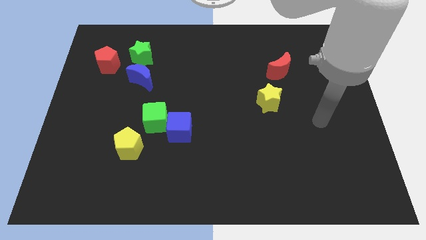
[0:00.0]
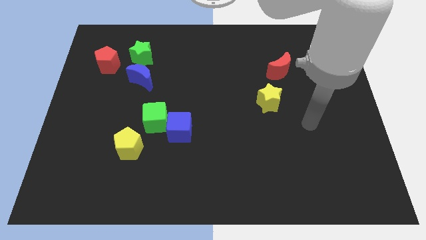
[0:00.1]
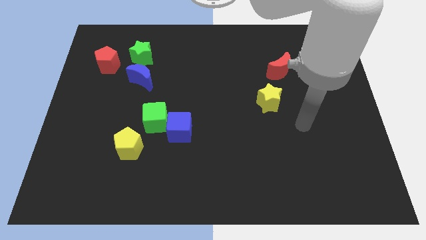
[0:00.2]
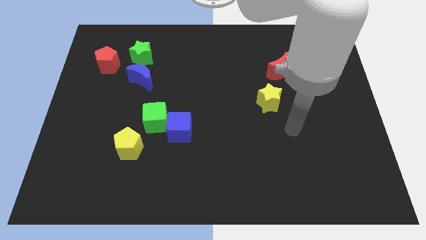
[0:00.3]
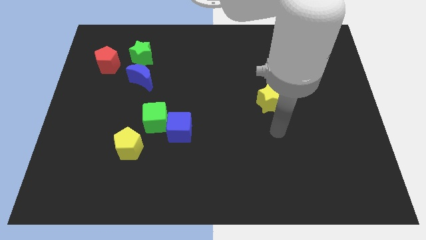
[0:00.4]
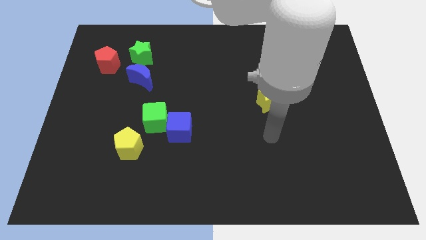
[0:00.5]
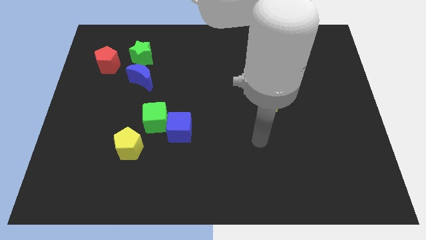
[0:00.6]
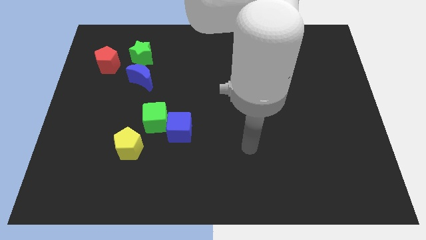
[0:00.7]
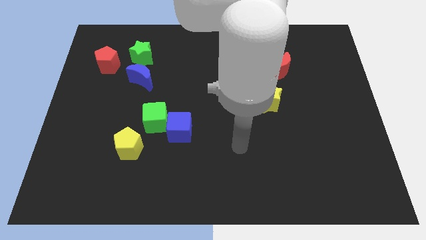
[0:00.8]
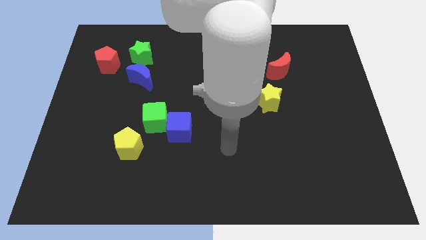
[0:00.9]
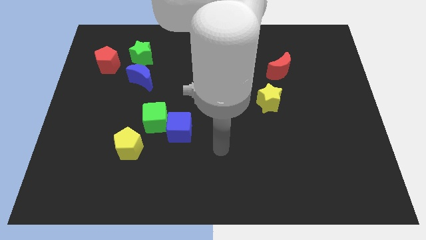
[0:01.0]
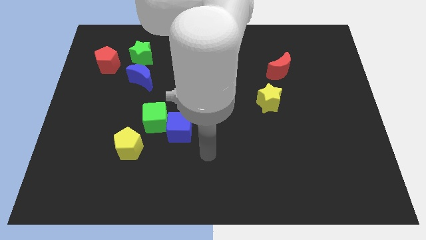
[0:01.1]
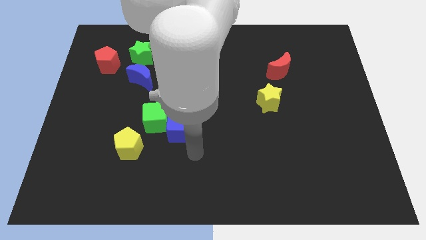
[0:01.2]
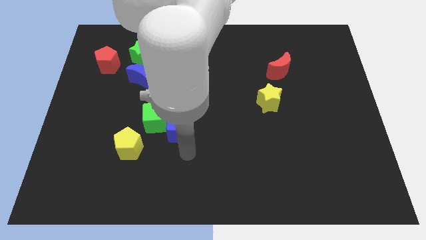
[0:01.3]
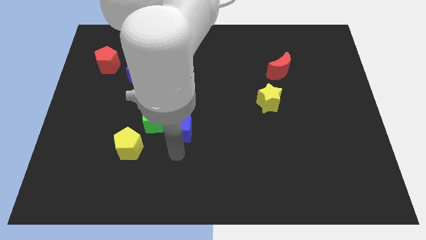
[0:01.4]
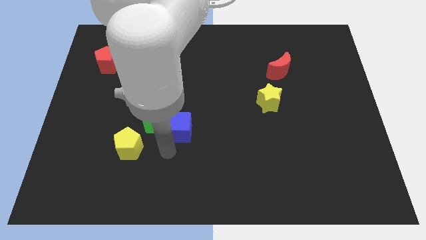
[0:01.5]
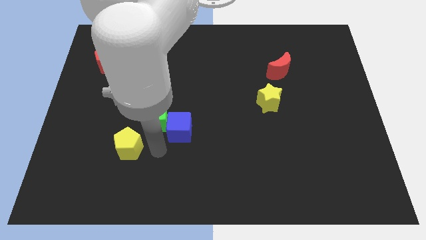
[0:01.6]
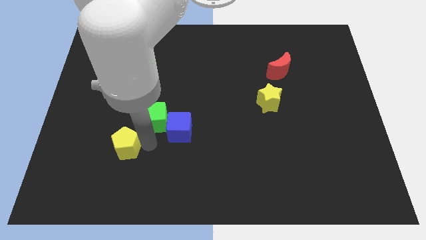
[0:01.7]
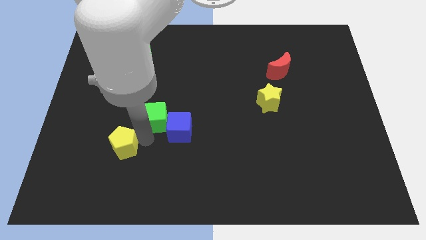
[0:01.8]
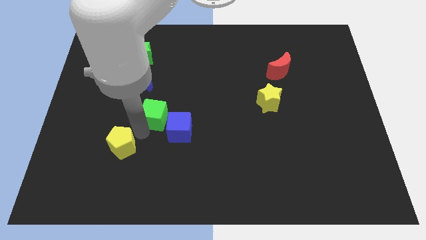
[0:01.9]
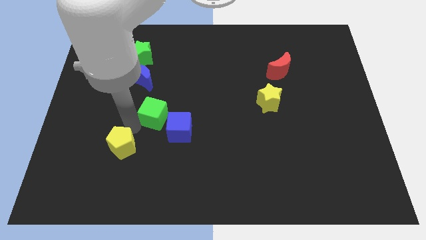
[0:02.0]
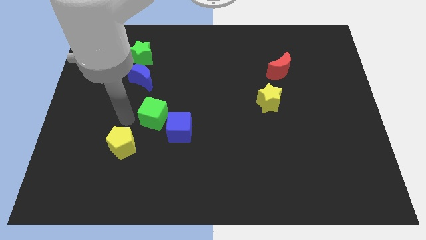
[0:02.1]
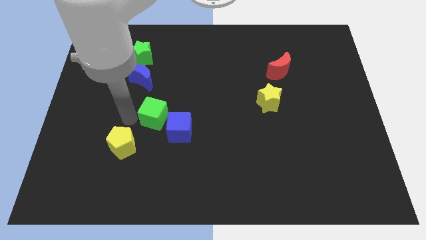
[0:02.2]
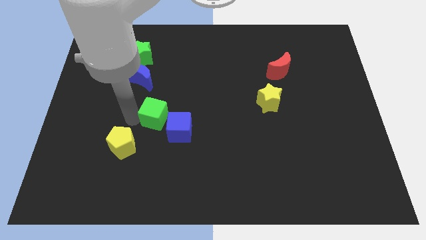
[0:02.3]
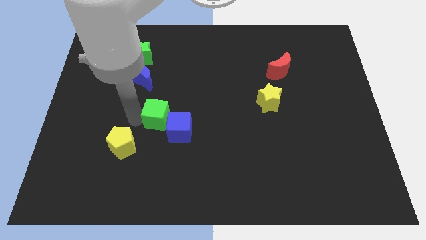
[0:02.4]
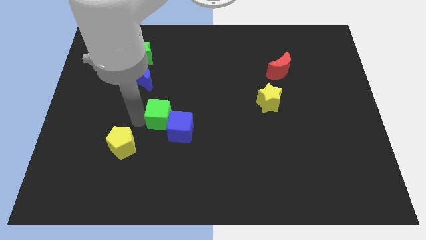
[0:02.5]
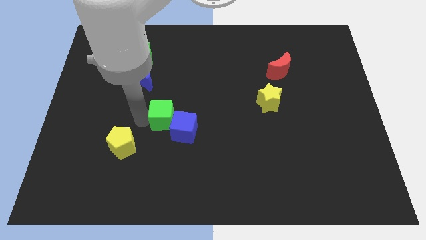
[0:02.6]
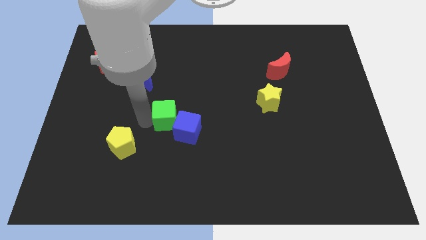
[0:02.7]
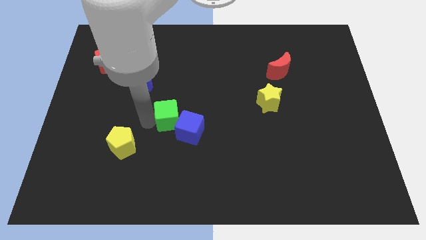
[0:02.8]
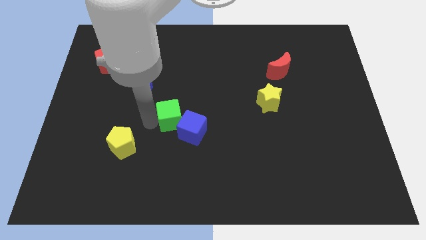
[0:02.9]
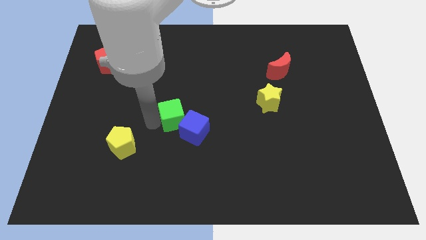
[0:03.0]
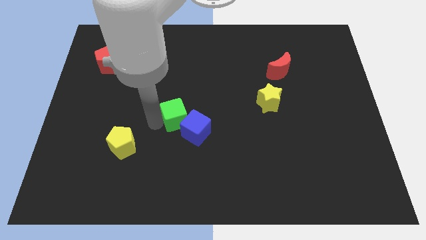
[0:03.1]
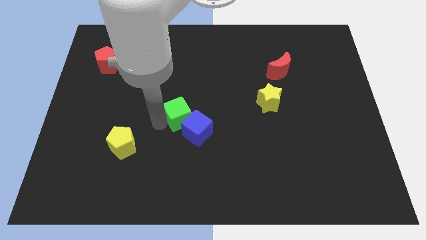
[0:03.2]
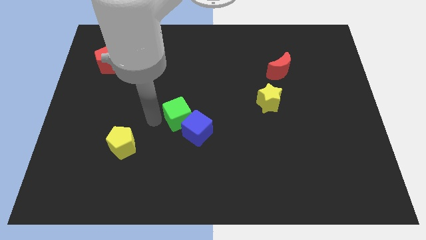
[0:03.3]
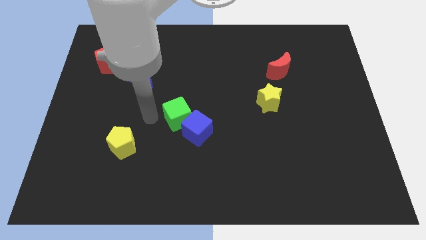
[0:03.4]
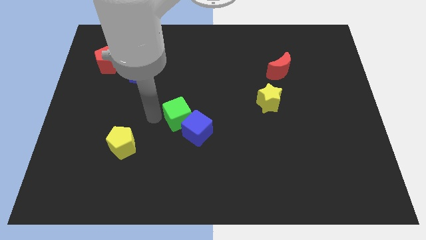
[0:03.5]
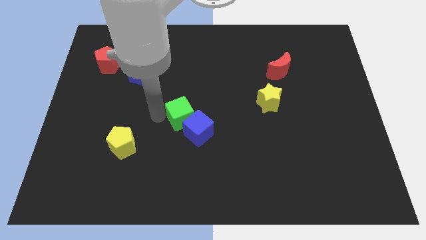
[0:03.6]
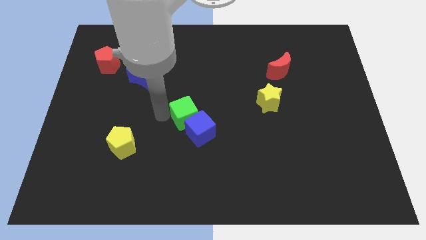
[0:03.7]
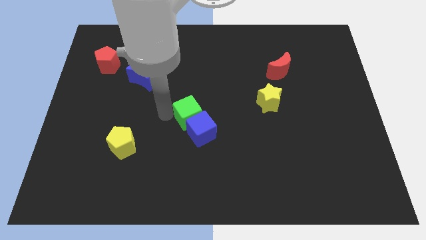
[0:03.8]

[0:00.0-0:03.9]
move the green cube to the right slightly

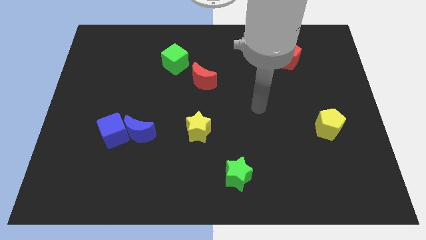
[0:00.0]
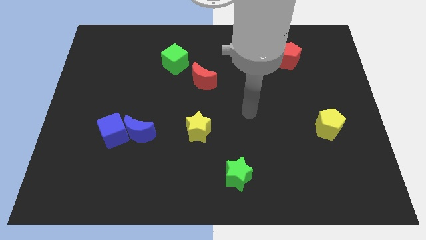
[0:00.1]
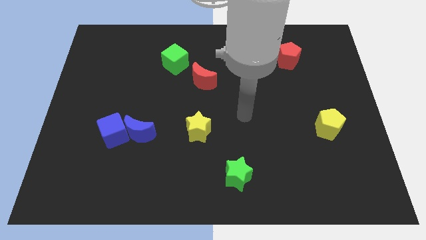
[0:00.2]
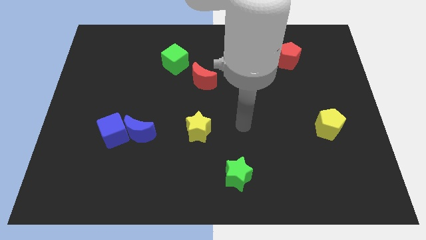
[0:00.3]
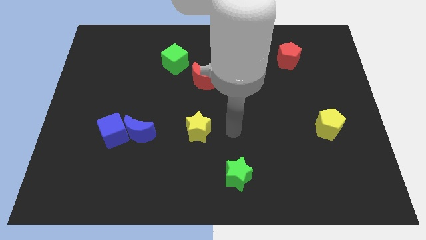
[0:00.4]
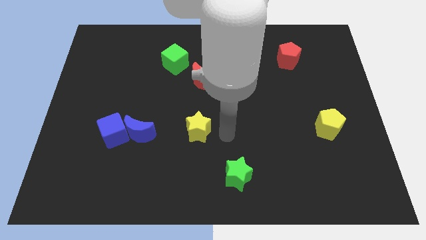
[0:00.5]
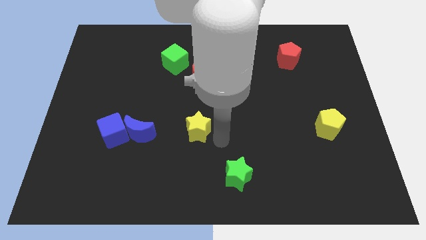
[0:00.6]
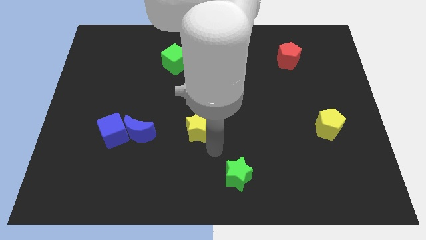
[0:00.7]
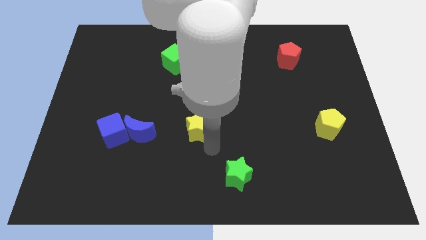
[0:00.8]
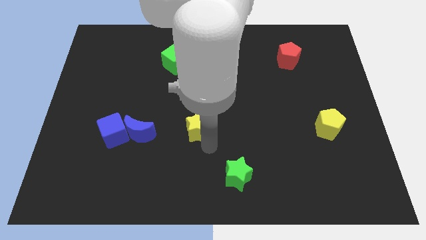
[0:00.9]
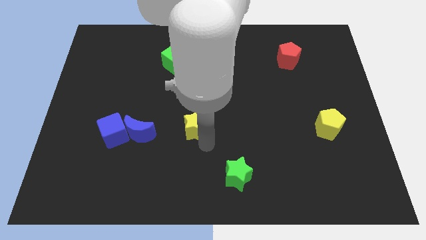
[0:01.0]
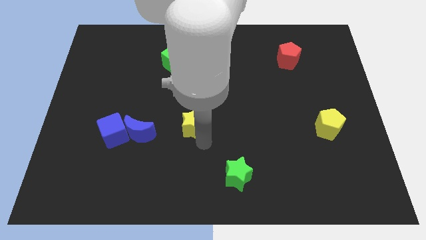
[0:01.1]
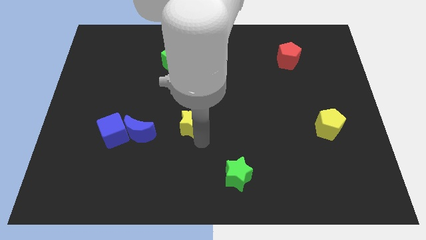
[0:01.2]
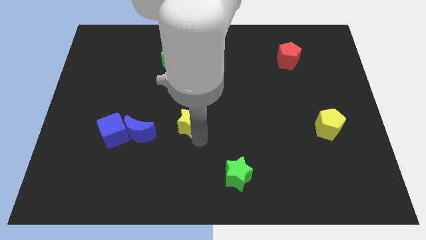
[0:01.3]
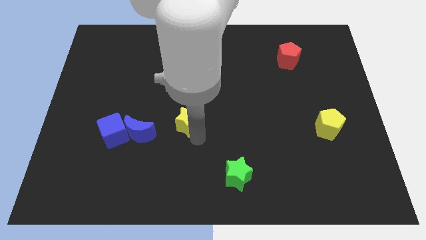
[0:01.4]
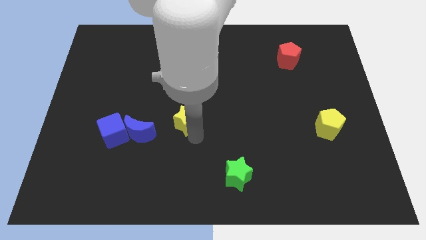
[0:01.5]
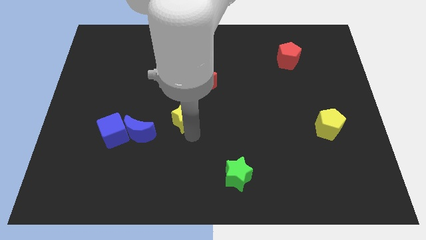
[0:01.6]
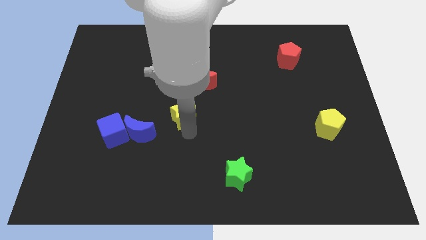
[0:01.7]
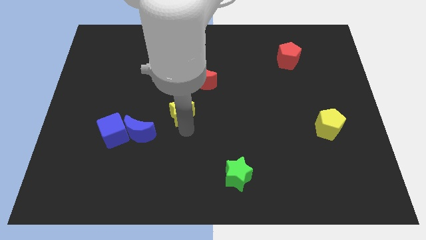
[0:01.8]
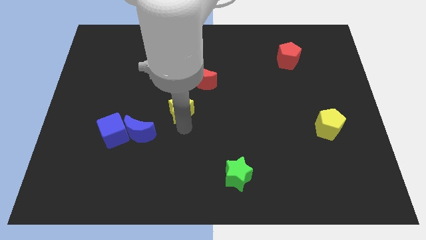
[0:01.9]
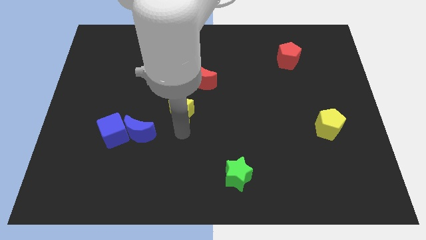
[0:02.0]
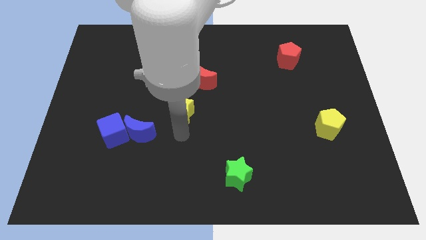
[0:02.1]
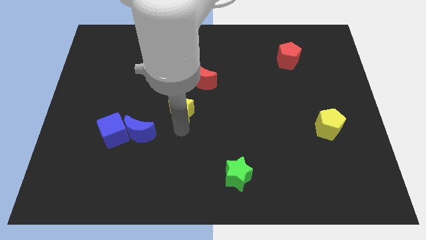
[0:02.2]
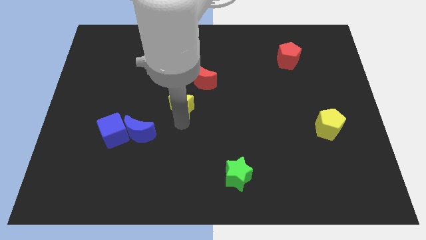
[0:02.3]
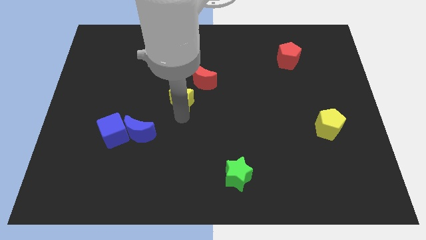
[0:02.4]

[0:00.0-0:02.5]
slide the yellow star somewhat up

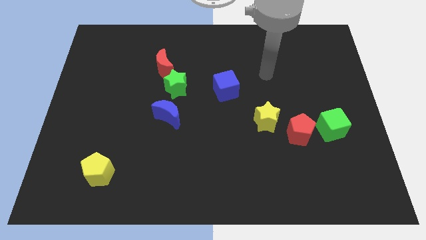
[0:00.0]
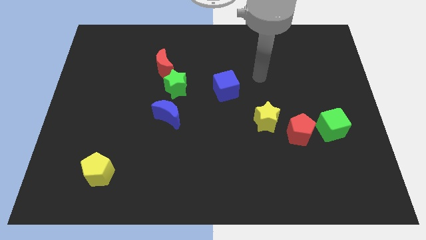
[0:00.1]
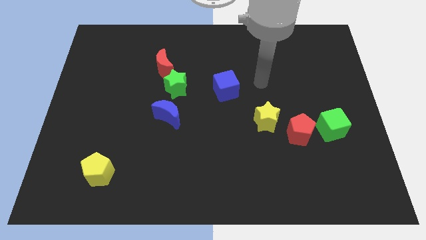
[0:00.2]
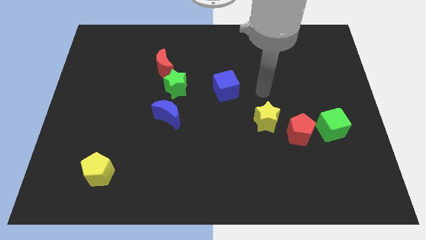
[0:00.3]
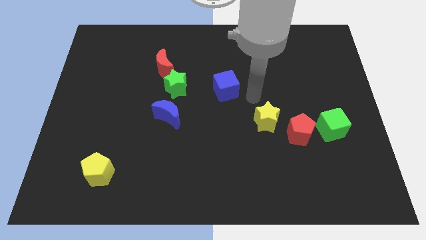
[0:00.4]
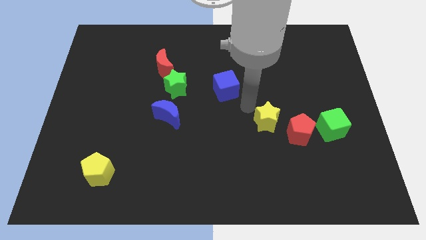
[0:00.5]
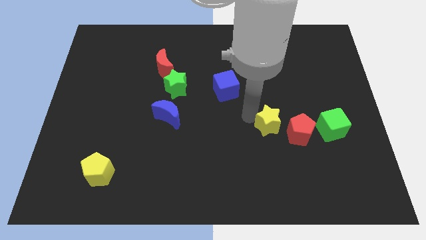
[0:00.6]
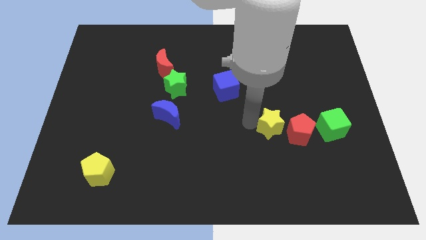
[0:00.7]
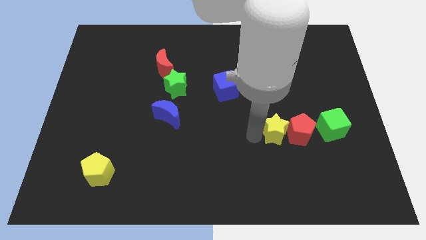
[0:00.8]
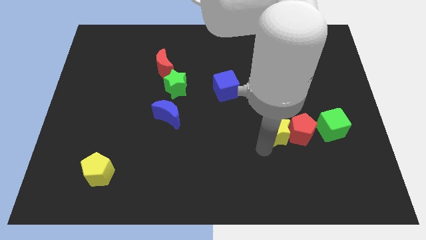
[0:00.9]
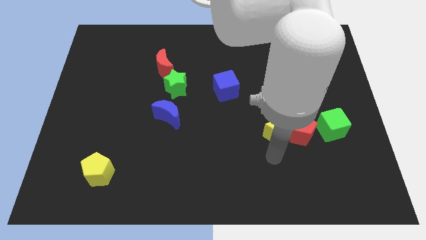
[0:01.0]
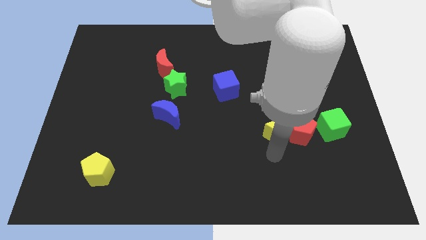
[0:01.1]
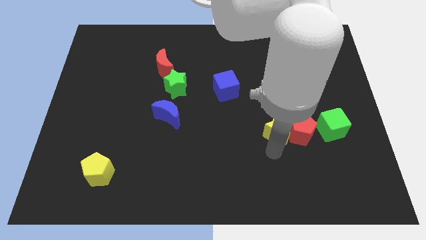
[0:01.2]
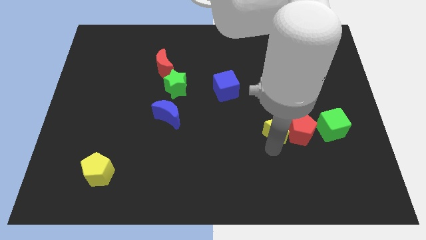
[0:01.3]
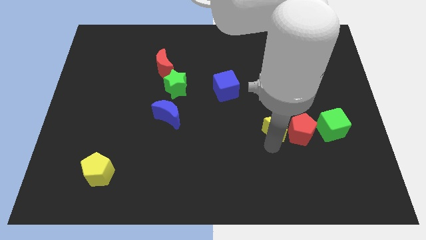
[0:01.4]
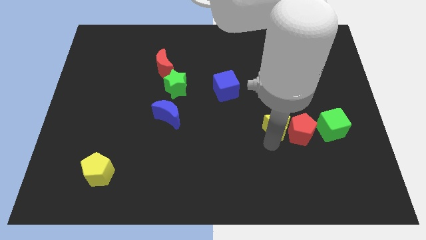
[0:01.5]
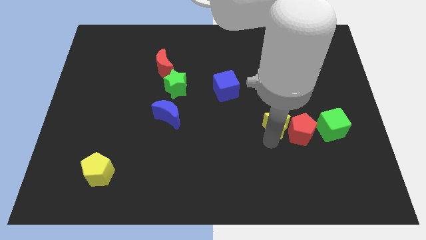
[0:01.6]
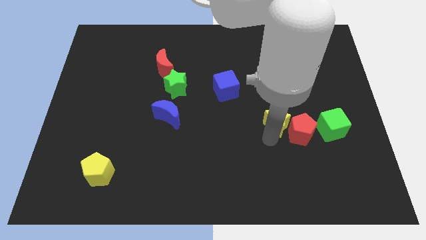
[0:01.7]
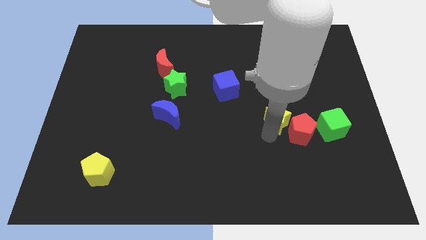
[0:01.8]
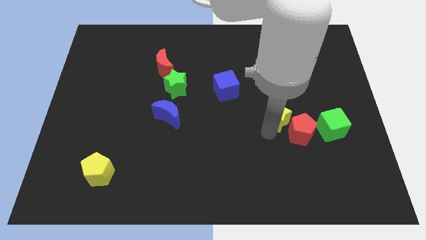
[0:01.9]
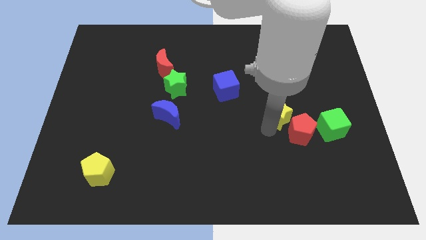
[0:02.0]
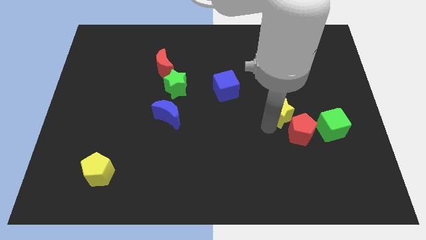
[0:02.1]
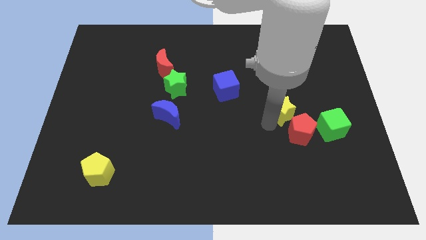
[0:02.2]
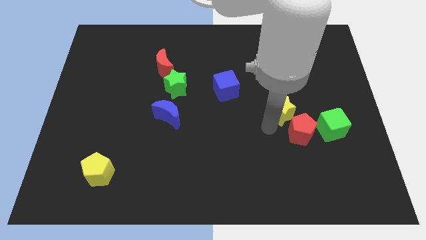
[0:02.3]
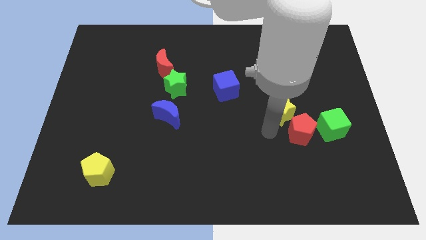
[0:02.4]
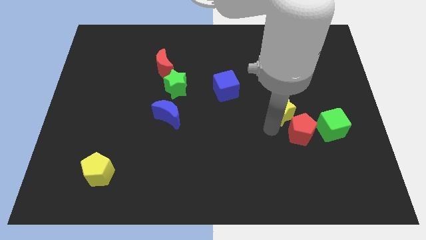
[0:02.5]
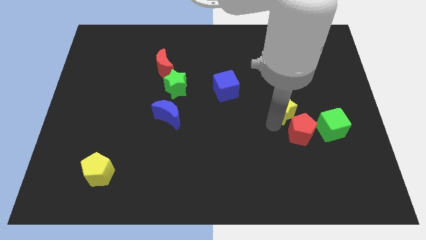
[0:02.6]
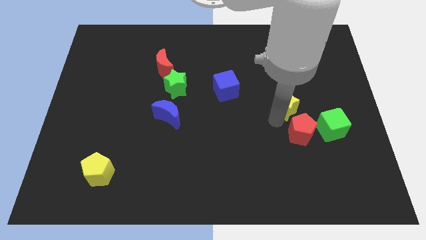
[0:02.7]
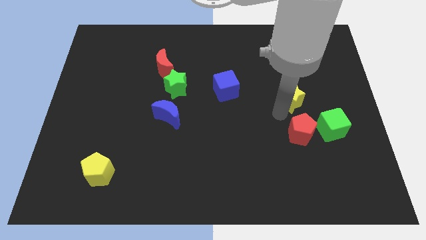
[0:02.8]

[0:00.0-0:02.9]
slightly slide the yellow star diagonally up and to the right
